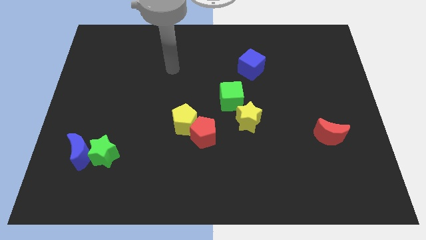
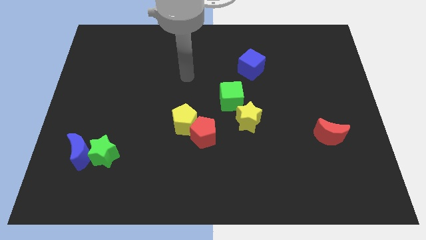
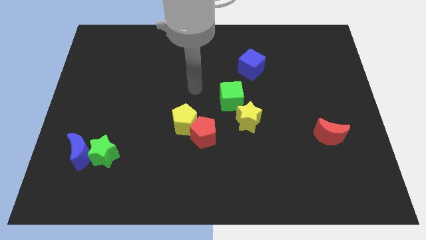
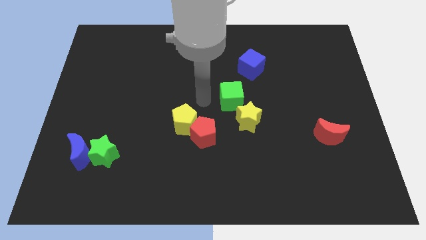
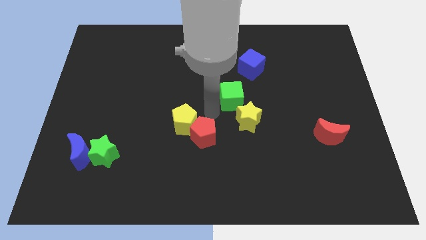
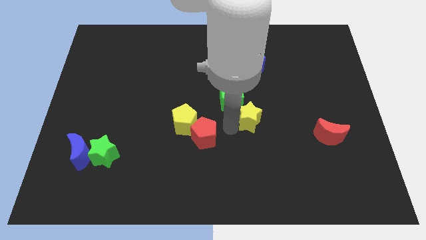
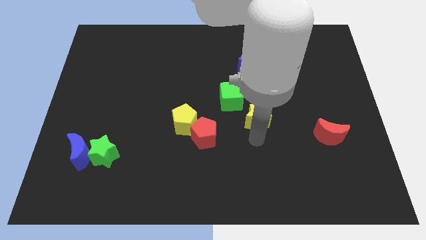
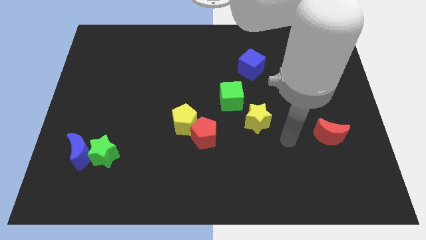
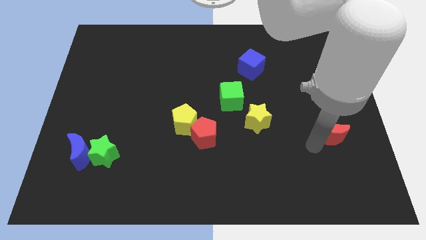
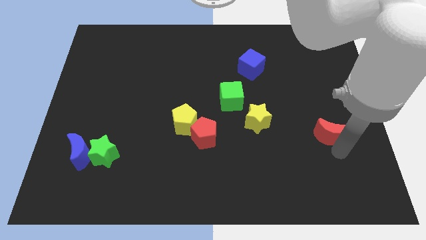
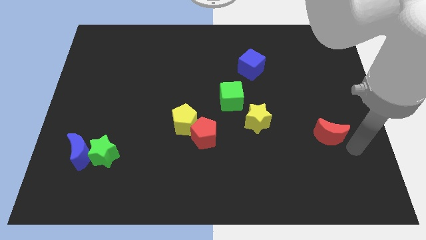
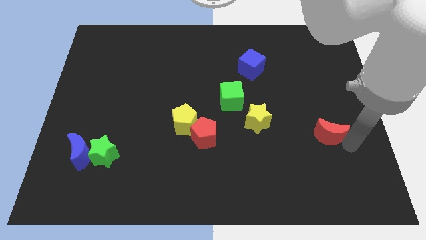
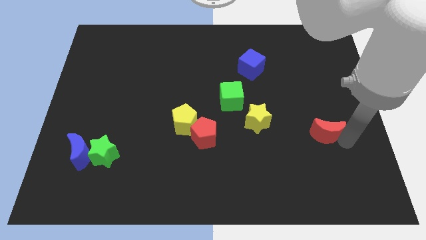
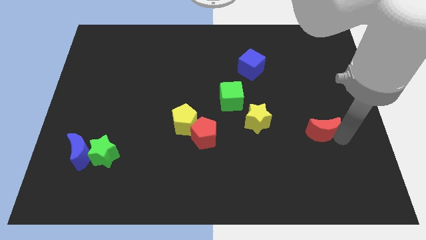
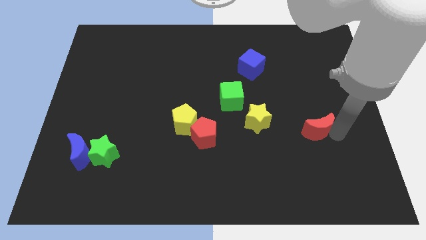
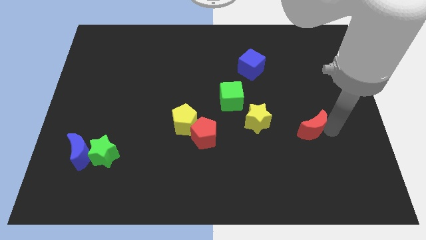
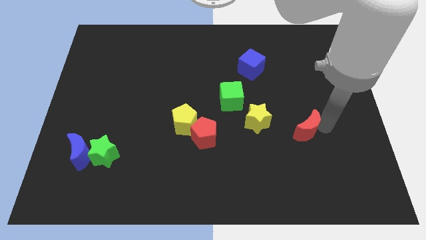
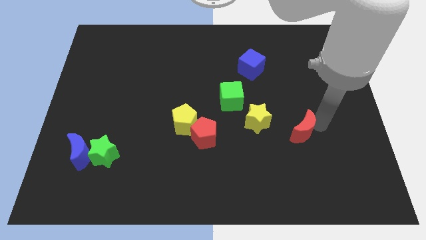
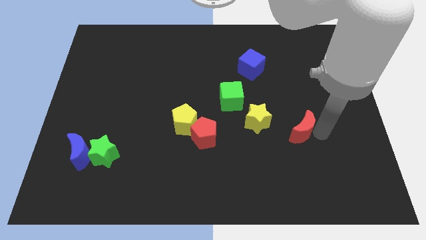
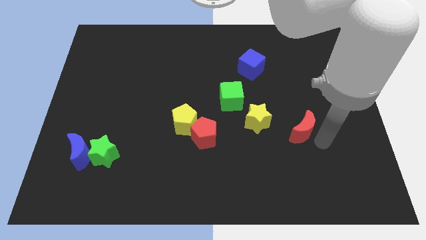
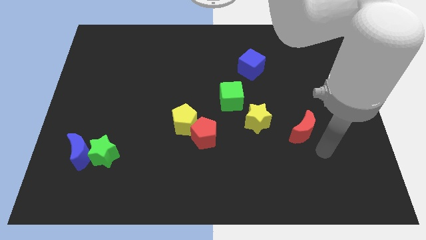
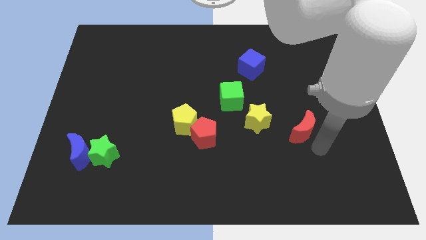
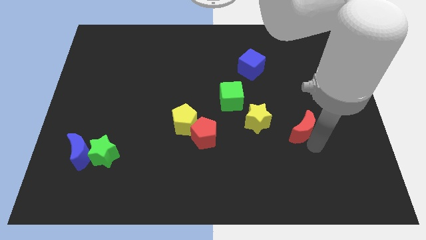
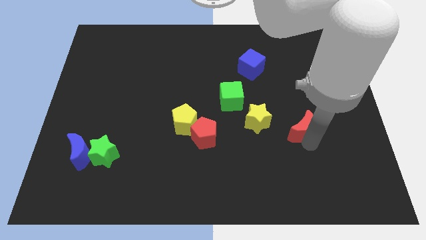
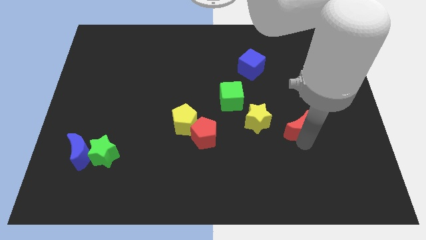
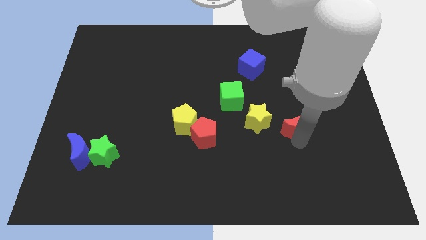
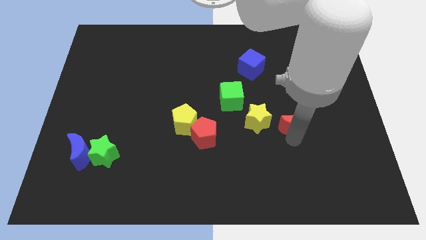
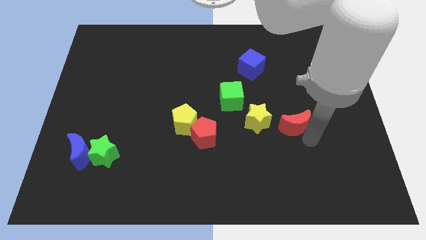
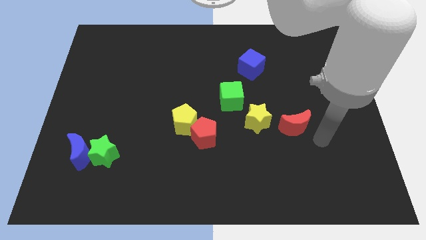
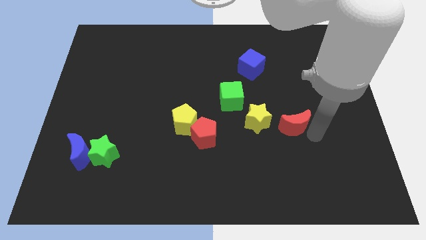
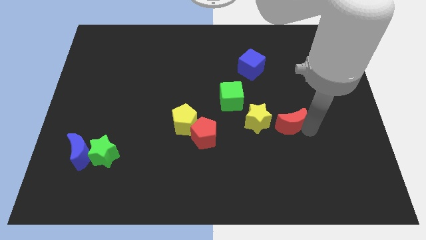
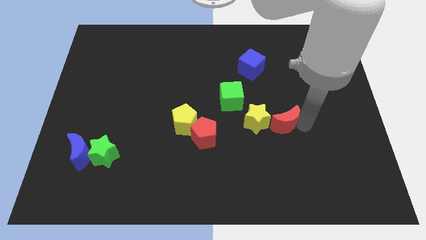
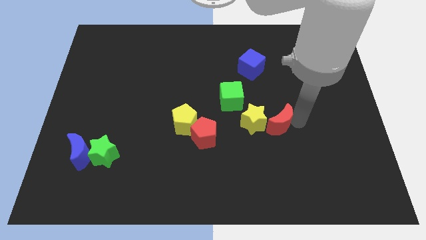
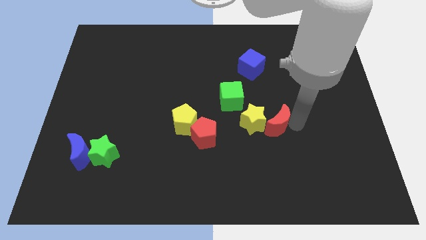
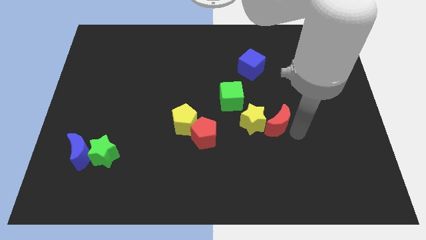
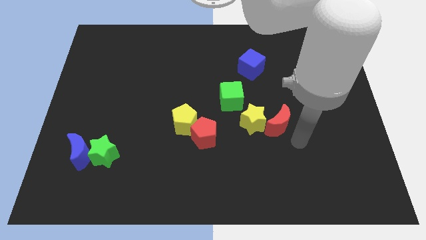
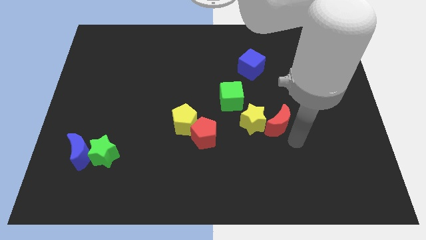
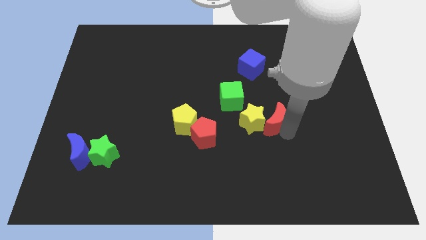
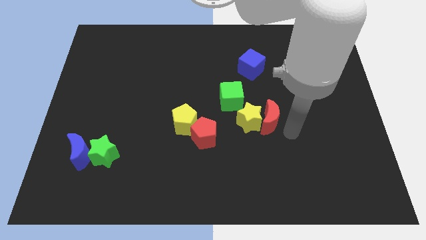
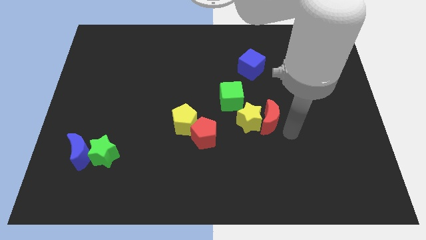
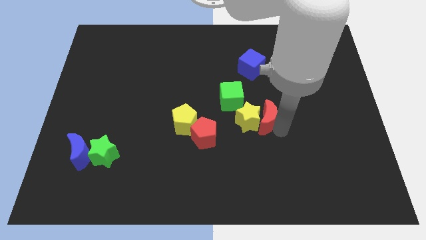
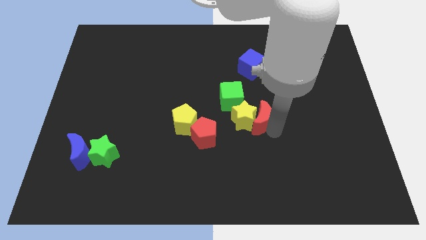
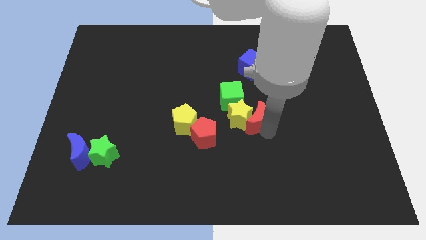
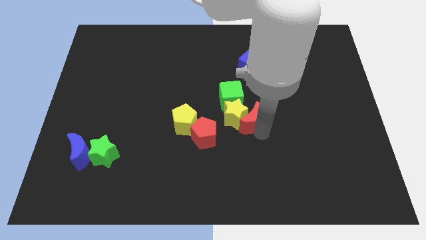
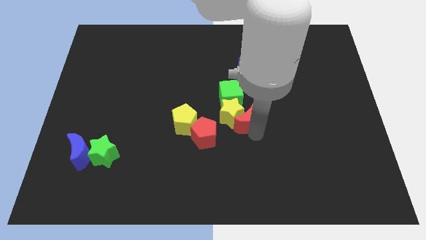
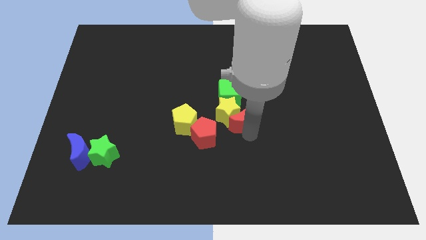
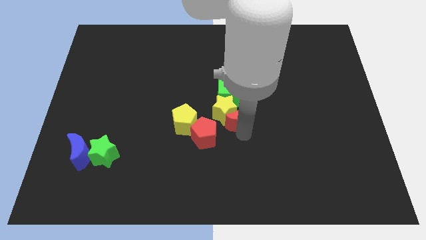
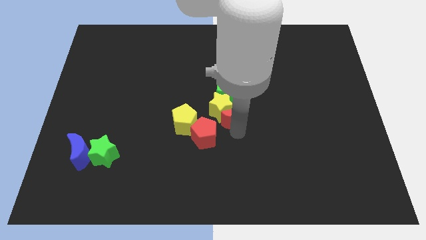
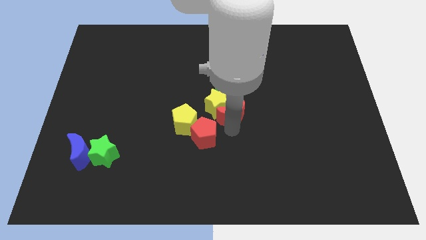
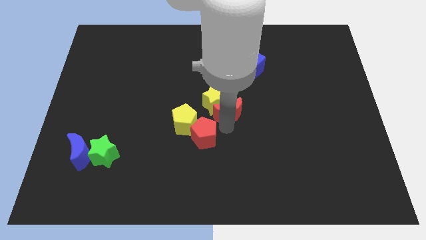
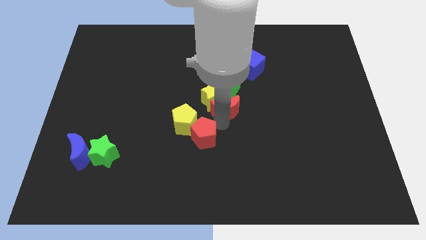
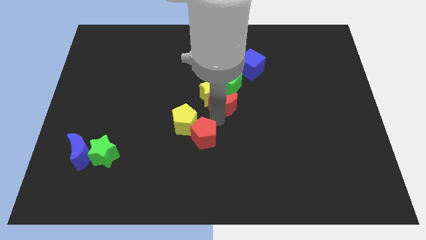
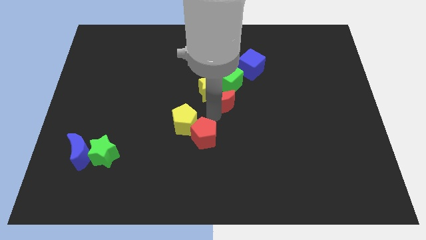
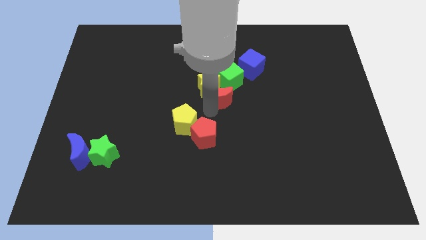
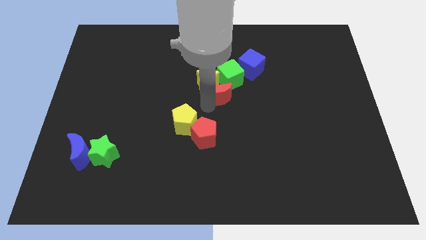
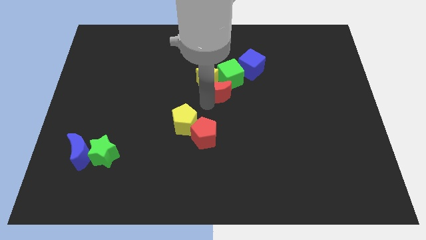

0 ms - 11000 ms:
put the red moon to the green cube

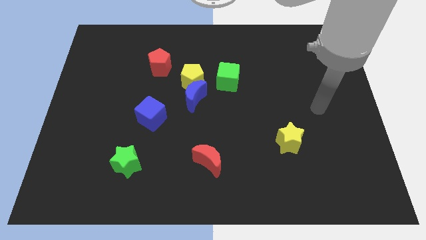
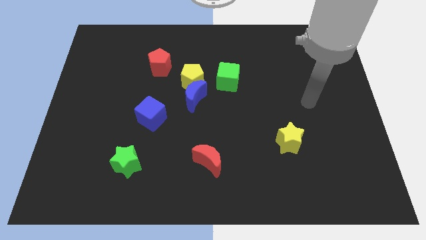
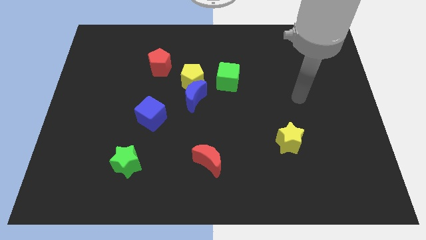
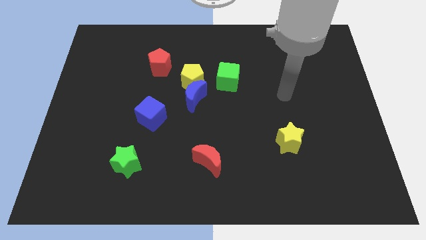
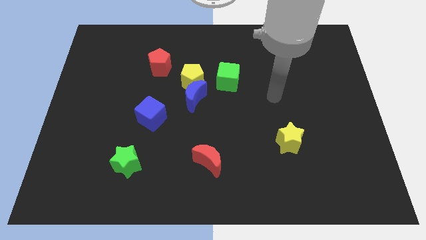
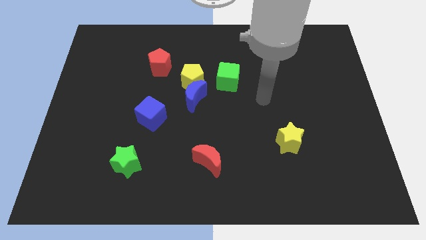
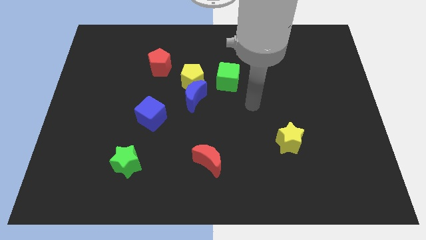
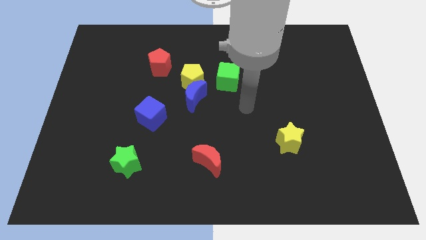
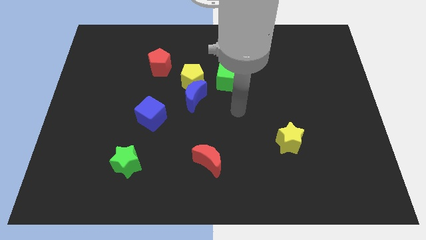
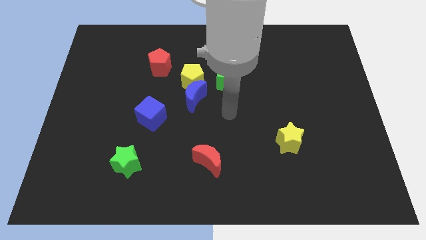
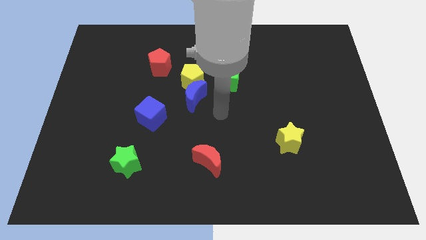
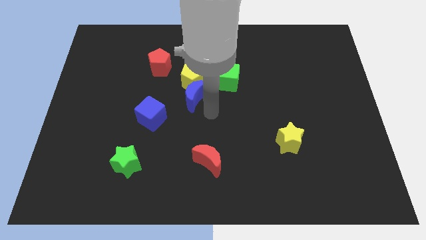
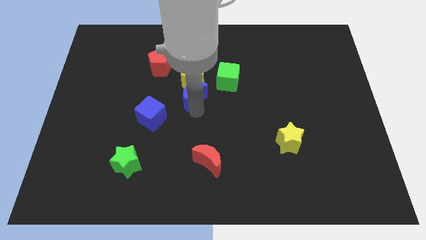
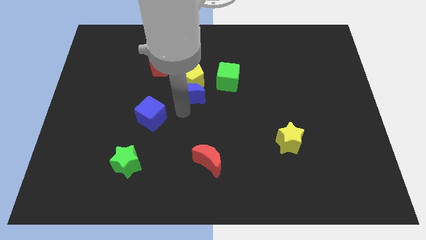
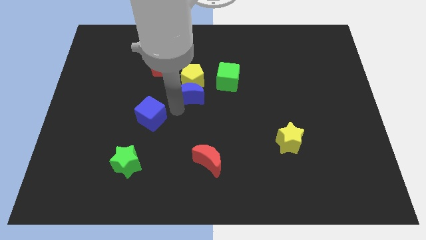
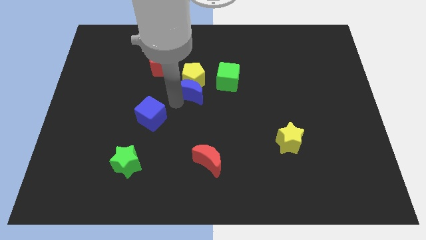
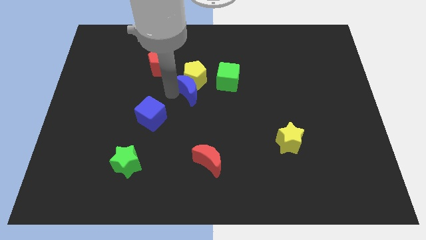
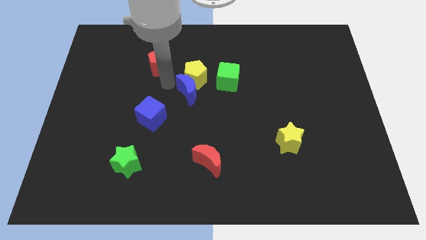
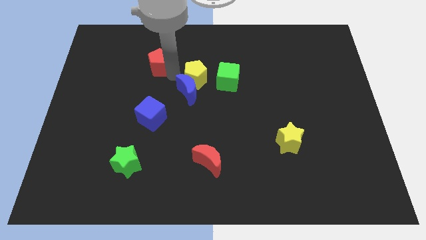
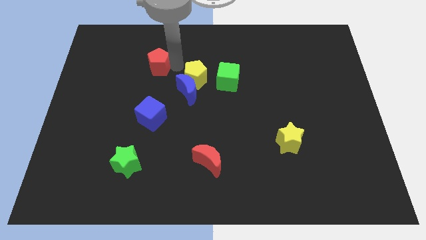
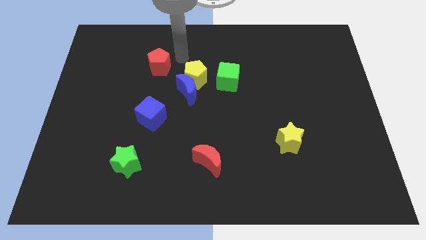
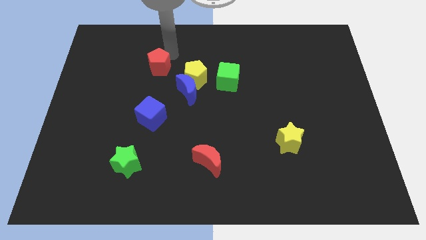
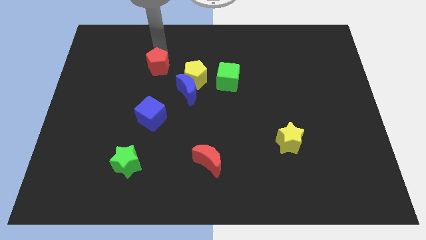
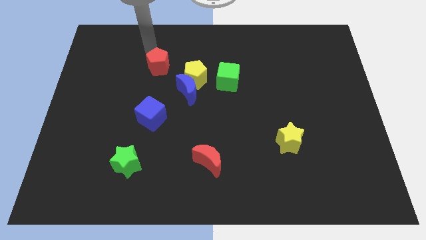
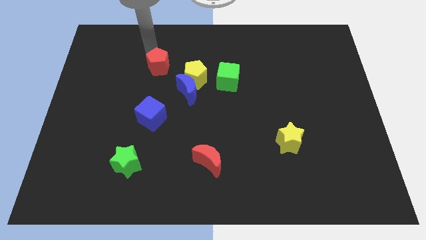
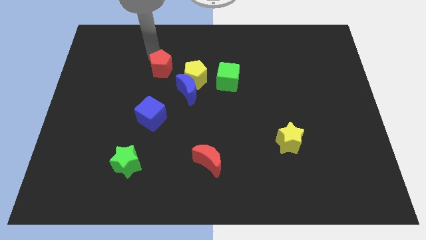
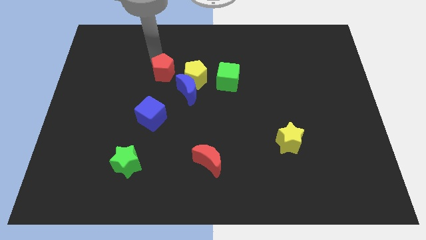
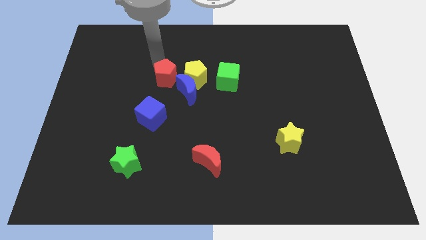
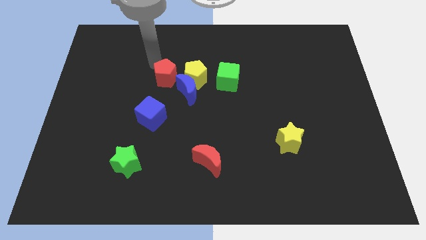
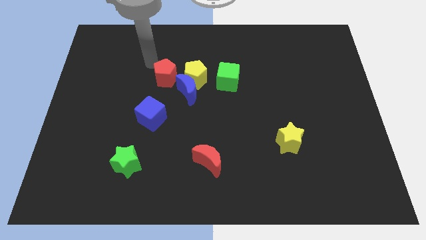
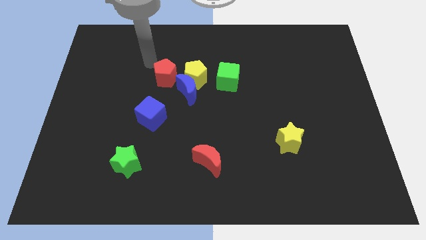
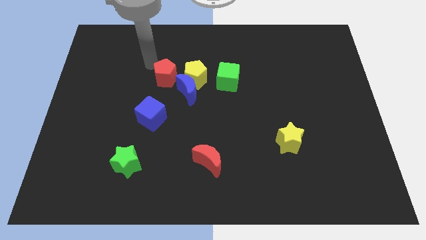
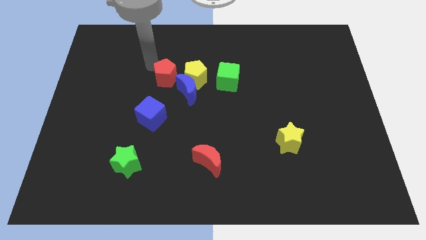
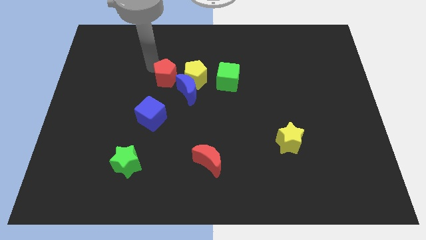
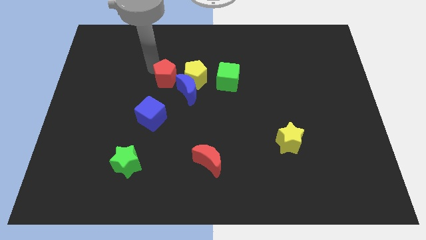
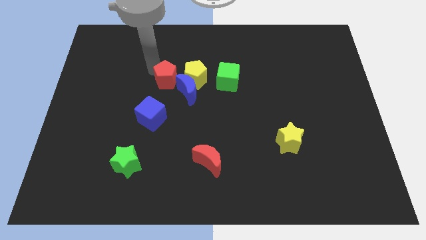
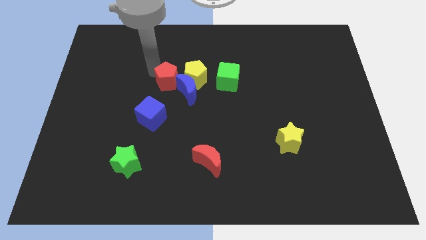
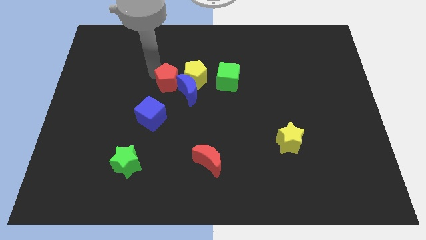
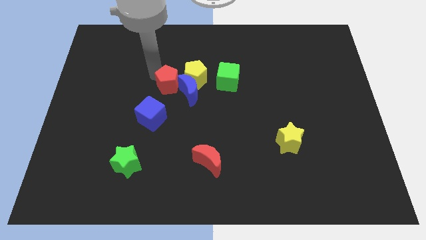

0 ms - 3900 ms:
push the red pentagon to the blue moon
